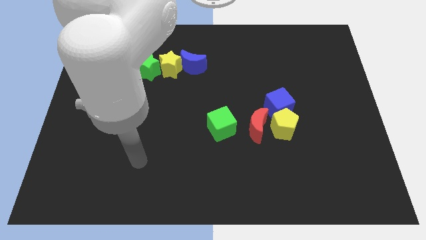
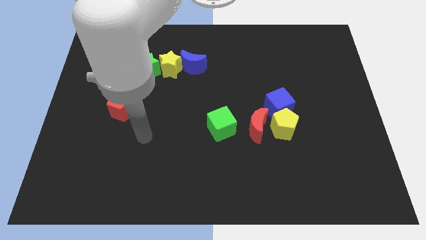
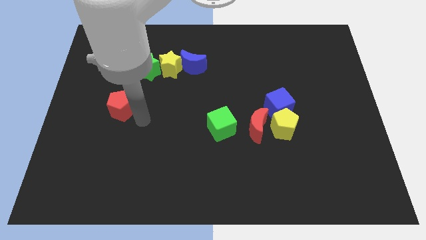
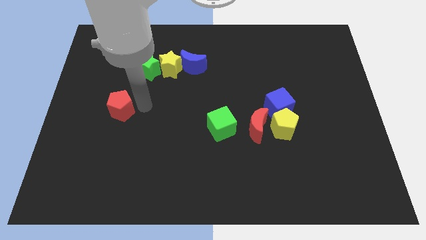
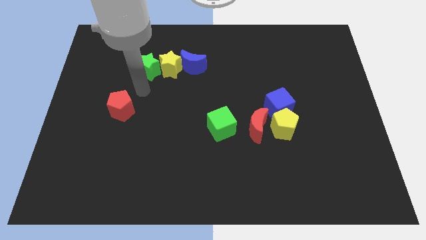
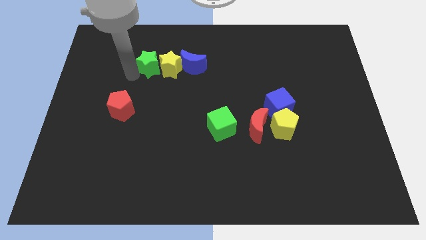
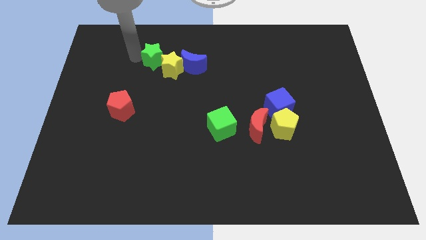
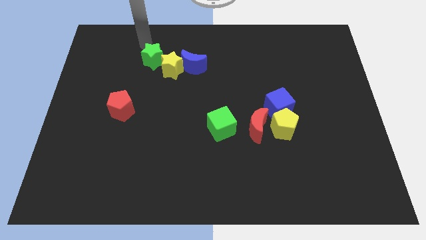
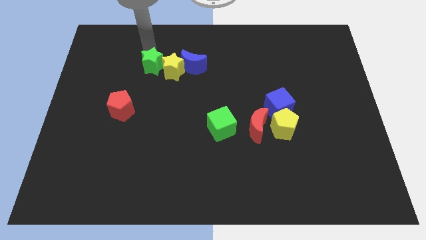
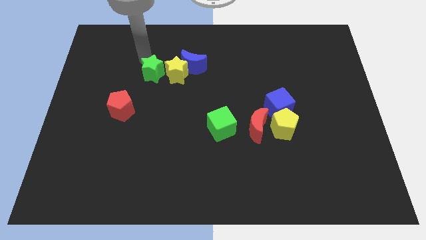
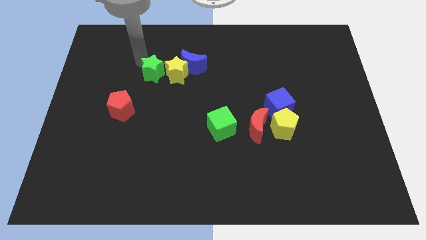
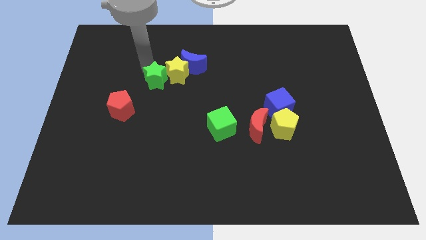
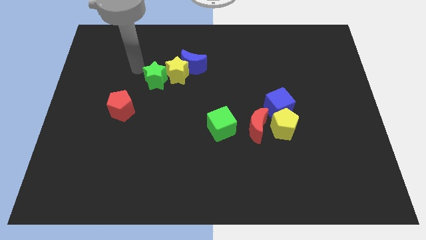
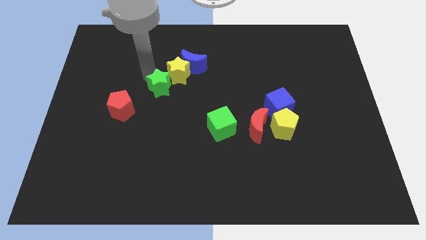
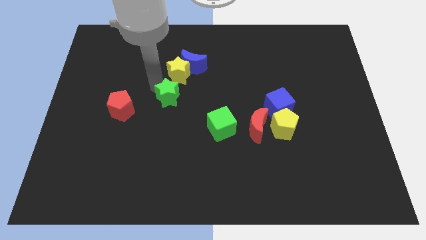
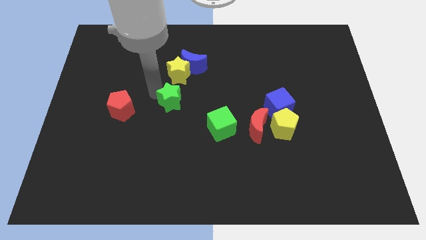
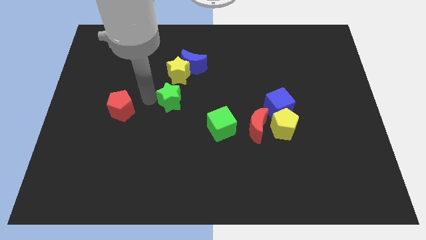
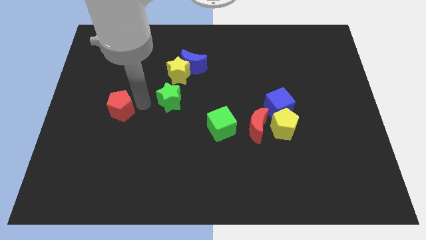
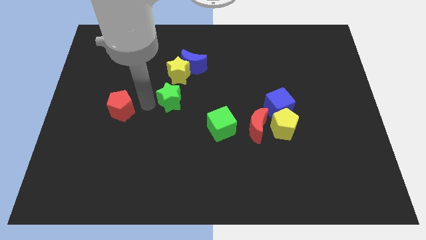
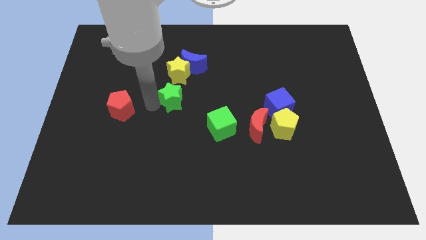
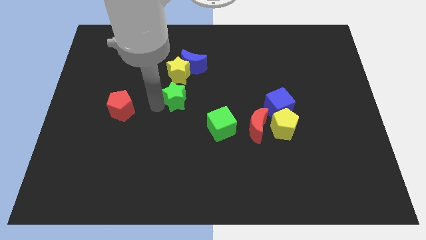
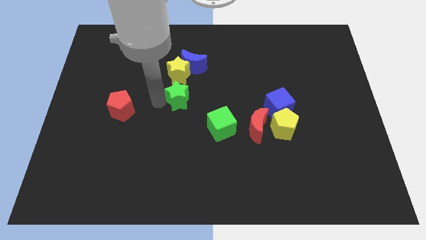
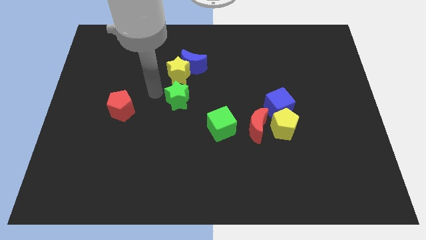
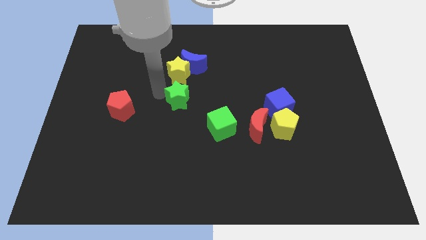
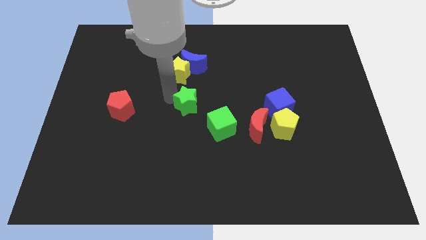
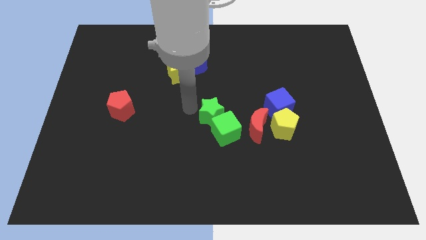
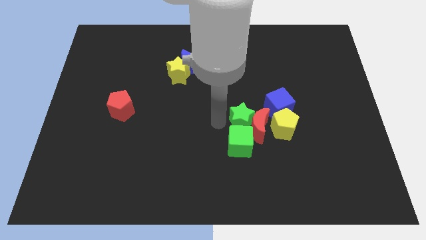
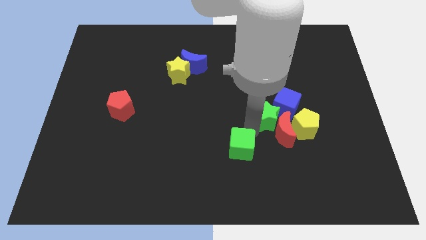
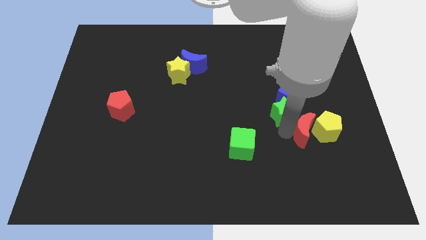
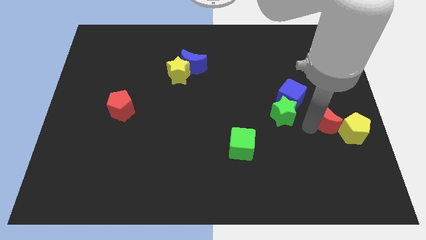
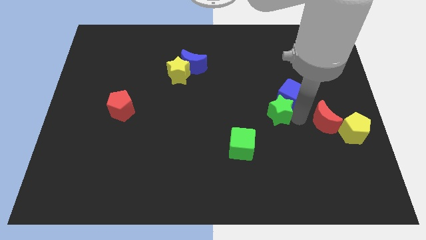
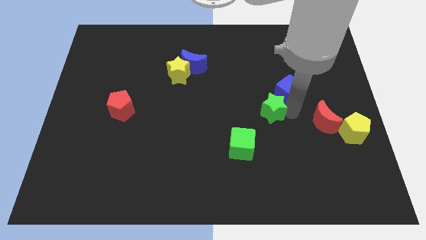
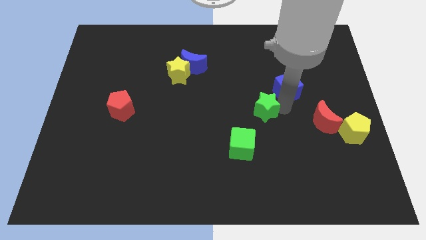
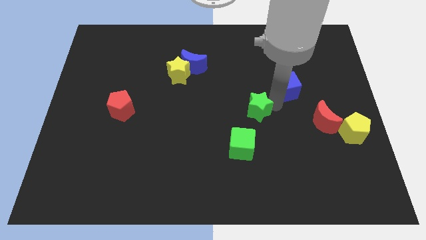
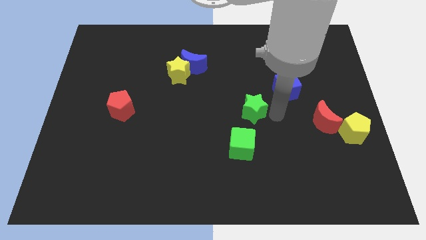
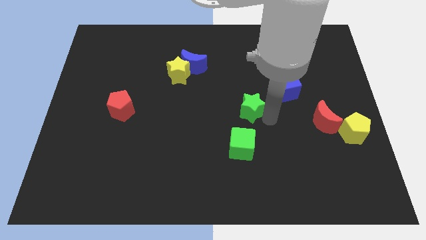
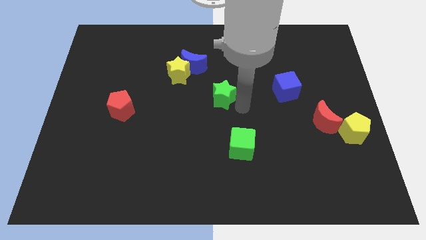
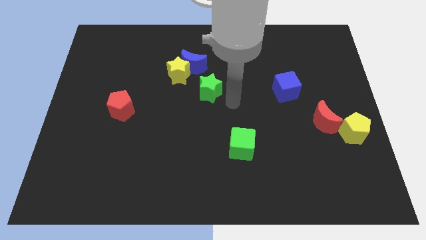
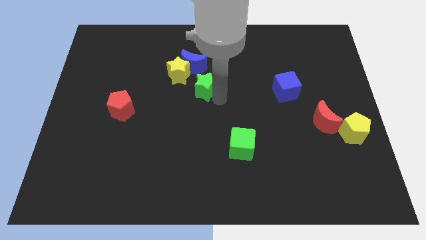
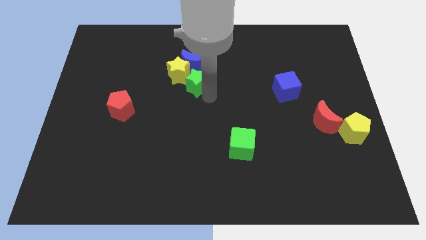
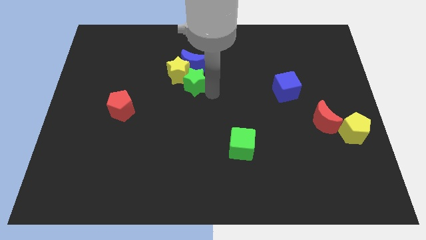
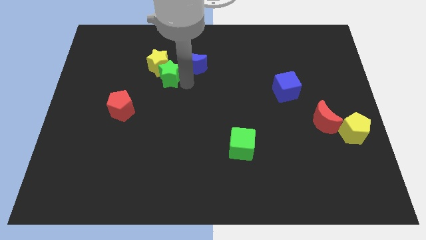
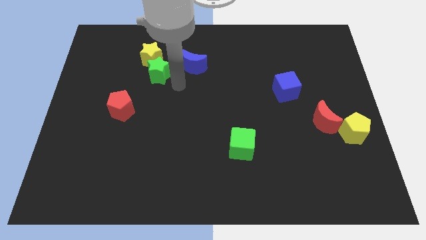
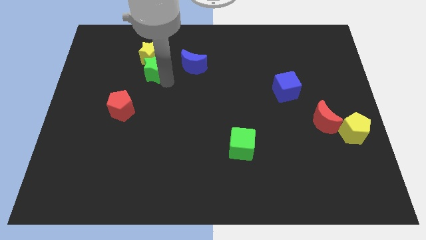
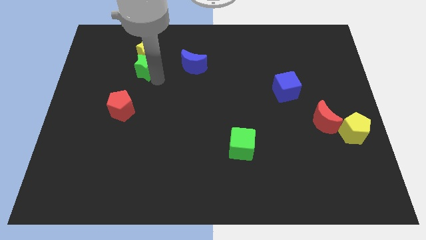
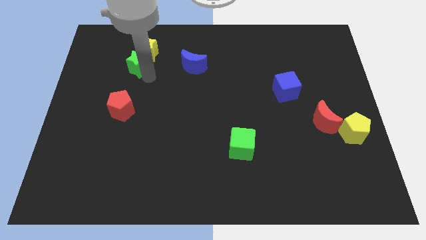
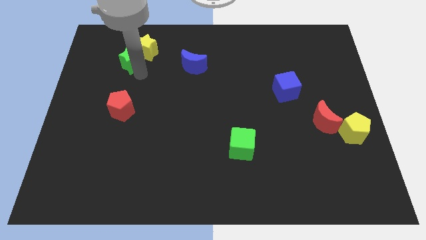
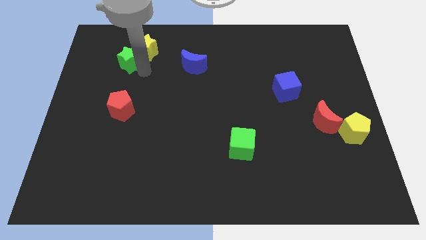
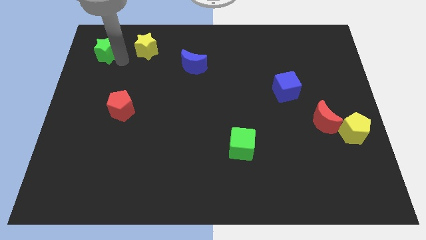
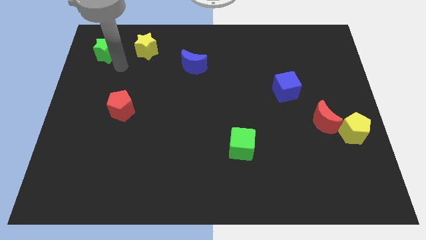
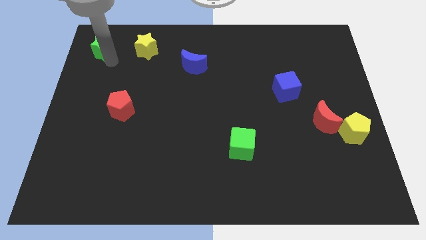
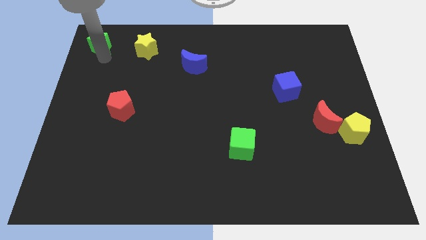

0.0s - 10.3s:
push the green star to the upper left corner
